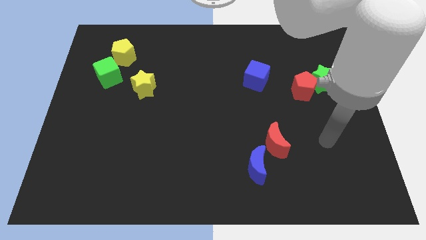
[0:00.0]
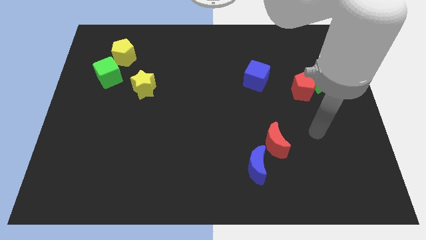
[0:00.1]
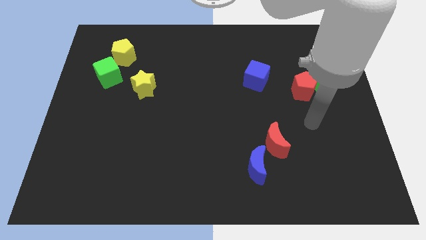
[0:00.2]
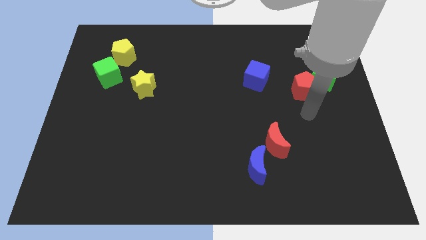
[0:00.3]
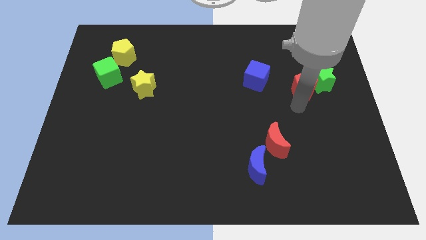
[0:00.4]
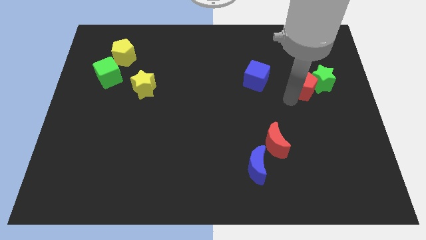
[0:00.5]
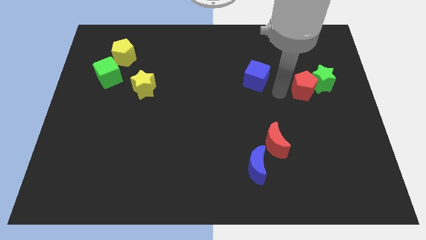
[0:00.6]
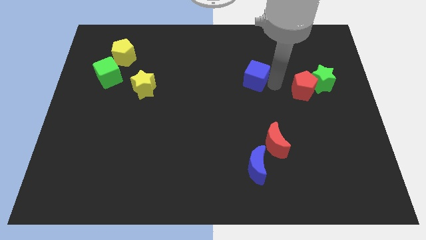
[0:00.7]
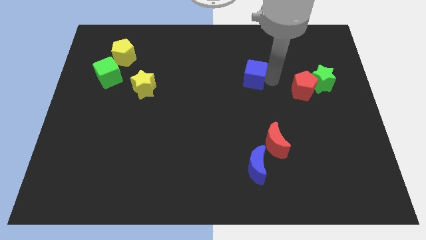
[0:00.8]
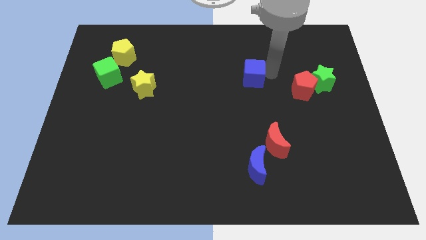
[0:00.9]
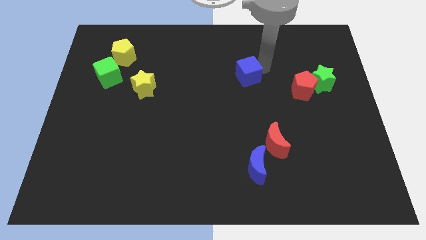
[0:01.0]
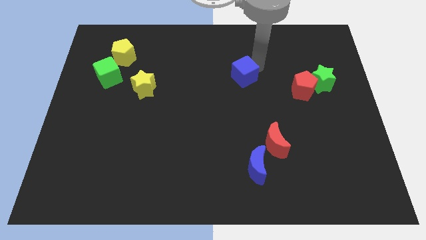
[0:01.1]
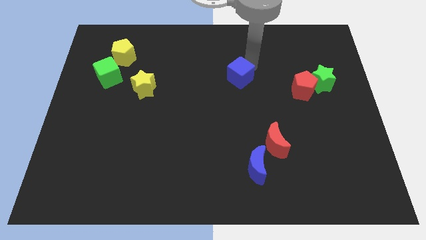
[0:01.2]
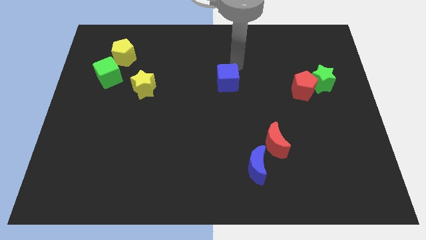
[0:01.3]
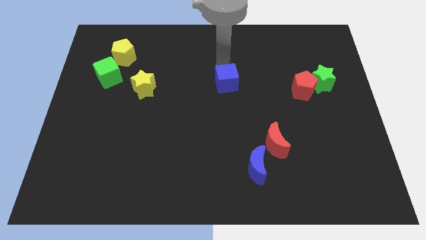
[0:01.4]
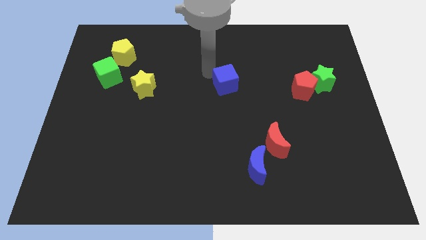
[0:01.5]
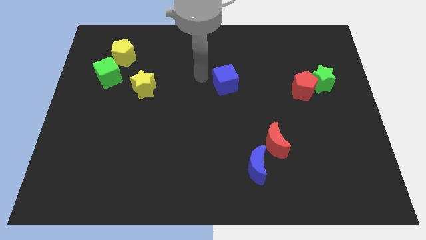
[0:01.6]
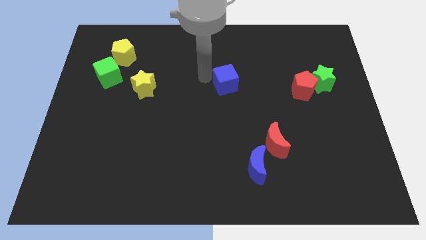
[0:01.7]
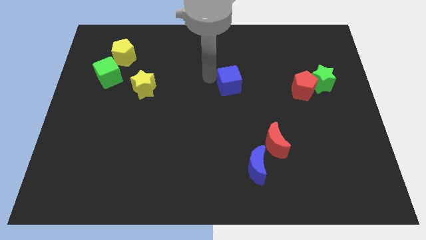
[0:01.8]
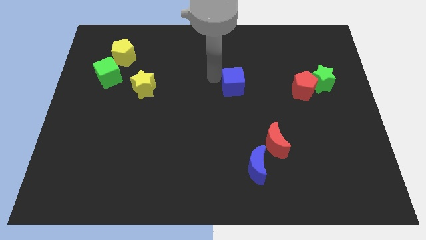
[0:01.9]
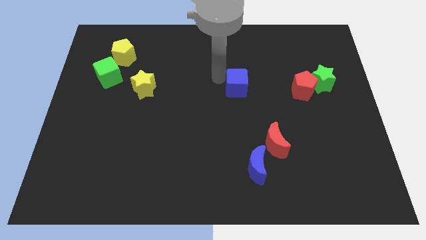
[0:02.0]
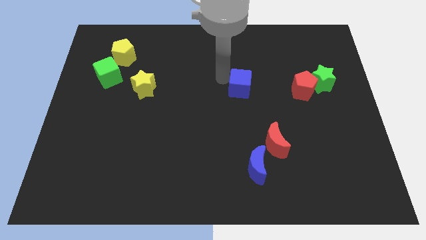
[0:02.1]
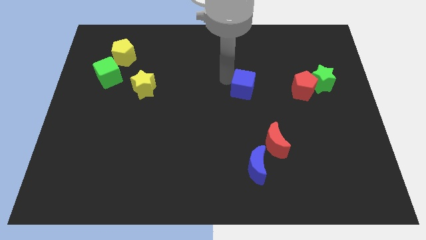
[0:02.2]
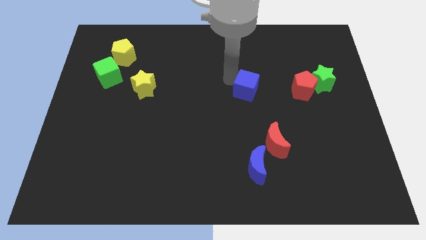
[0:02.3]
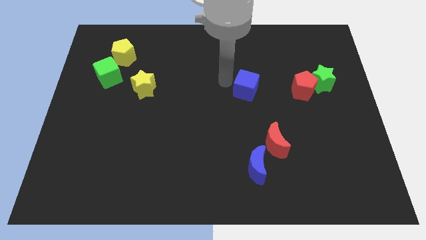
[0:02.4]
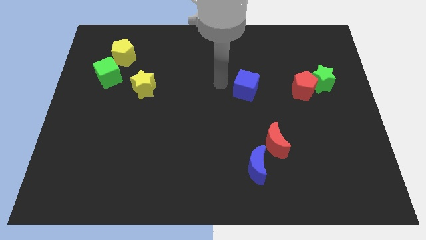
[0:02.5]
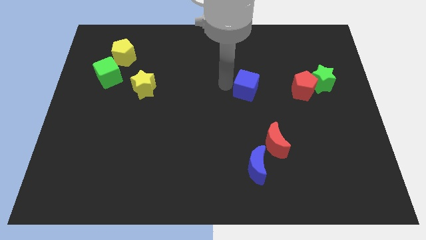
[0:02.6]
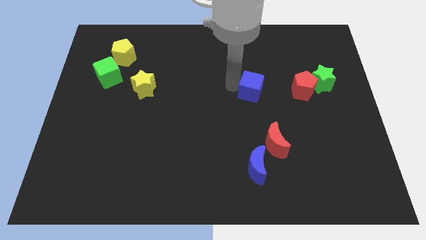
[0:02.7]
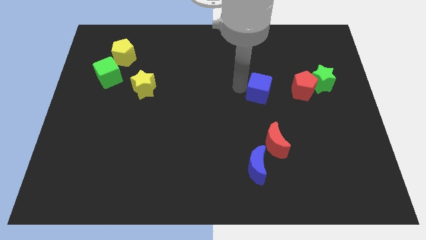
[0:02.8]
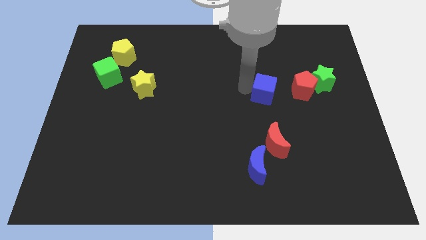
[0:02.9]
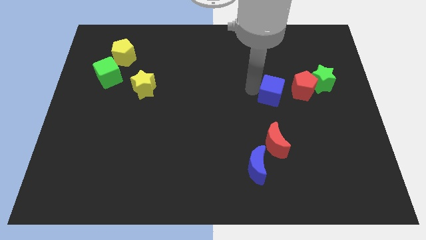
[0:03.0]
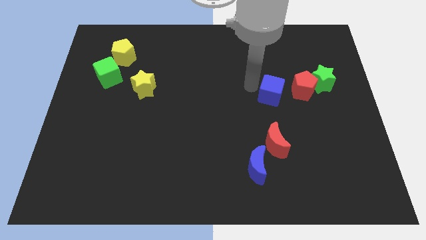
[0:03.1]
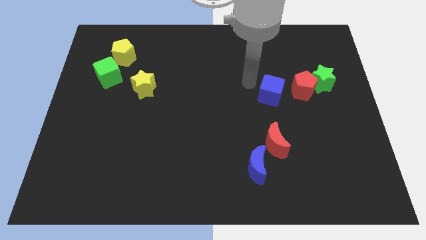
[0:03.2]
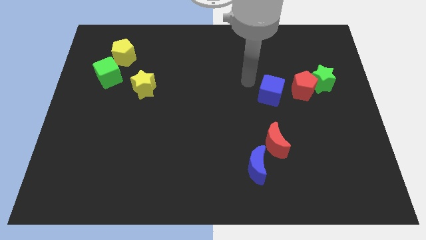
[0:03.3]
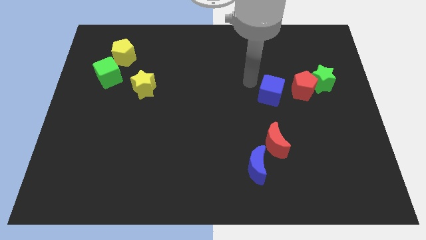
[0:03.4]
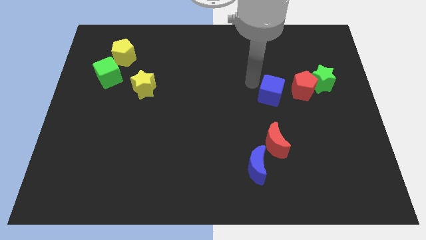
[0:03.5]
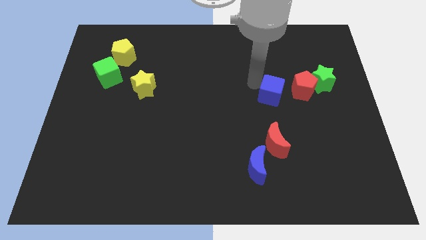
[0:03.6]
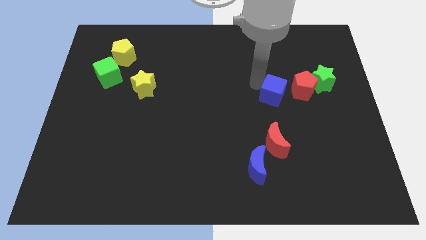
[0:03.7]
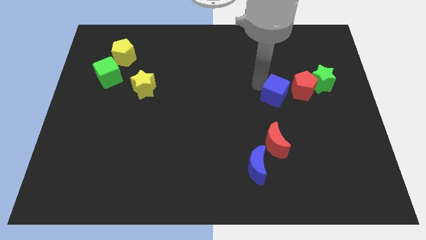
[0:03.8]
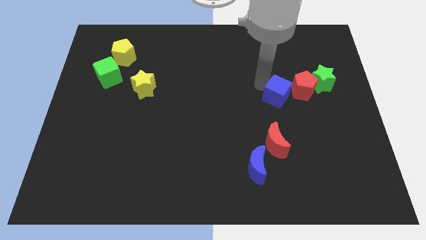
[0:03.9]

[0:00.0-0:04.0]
move the blue cube down and right a bit

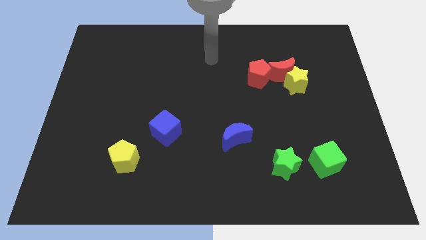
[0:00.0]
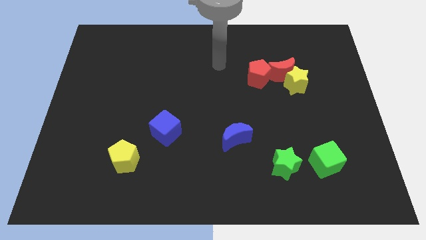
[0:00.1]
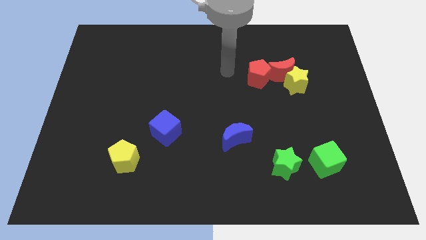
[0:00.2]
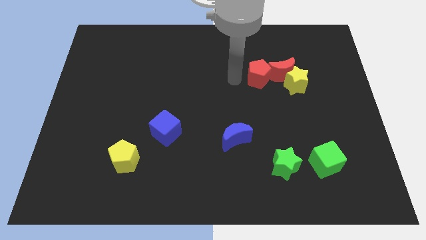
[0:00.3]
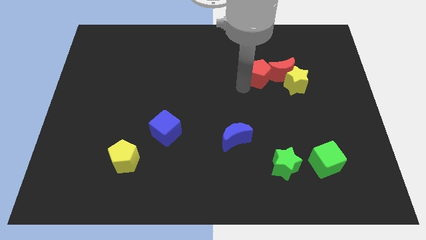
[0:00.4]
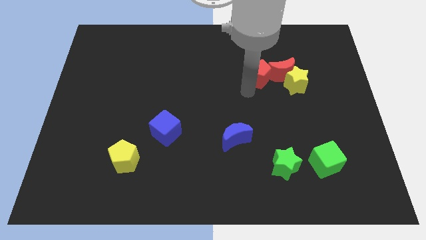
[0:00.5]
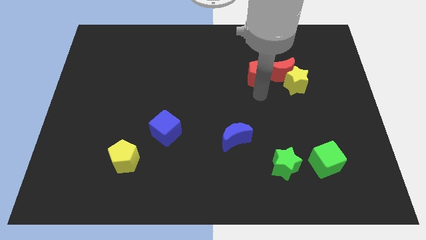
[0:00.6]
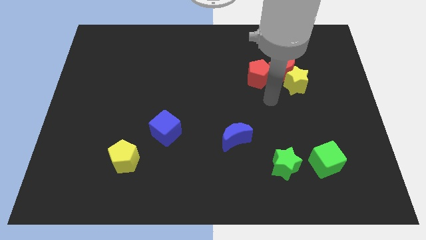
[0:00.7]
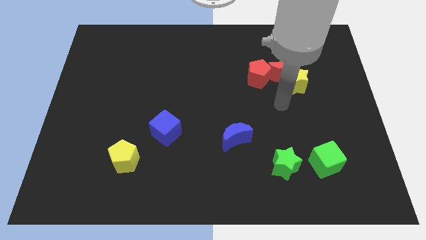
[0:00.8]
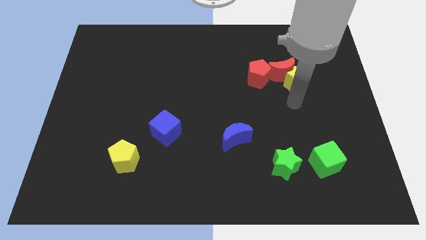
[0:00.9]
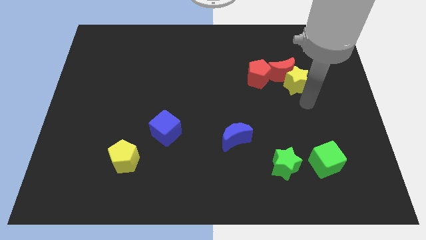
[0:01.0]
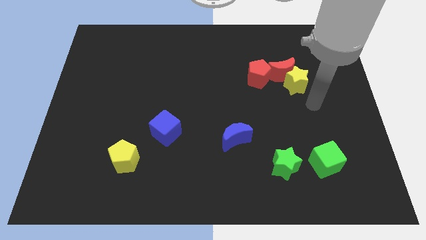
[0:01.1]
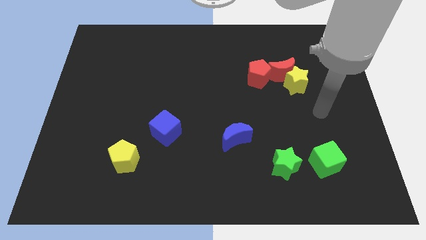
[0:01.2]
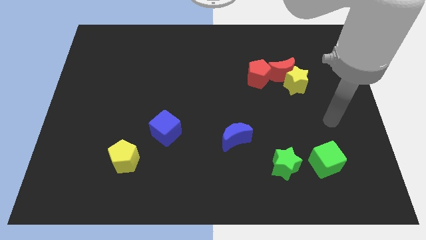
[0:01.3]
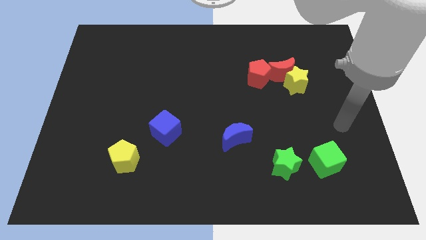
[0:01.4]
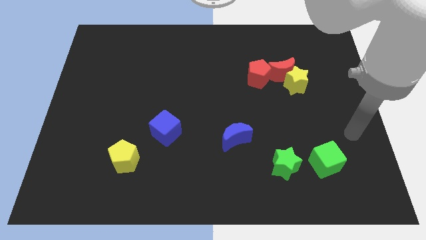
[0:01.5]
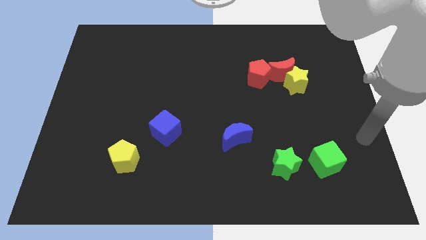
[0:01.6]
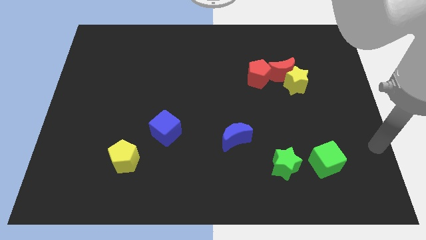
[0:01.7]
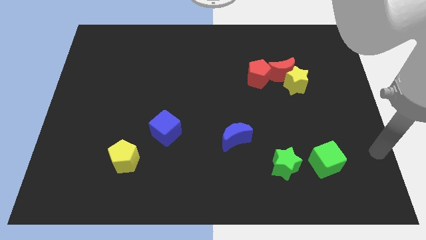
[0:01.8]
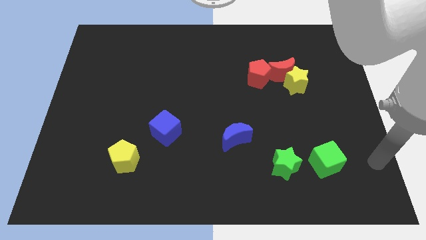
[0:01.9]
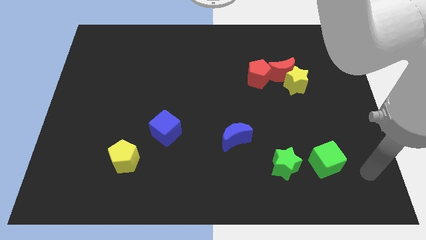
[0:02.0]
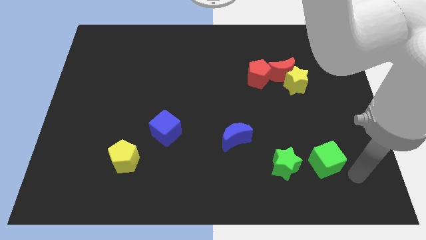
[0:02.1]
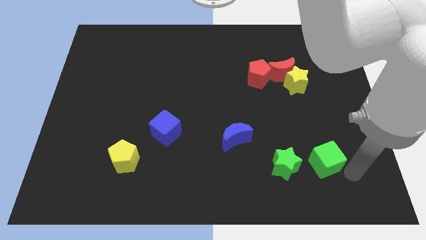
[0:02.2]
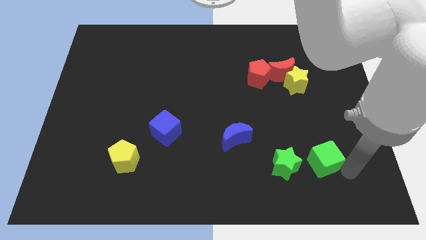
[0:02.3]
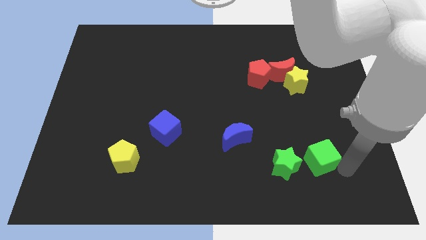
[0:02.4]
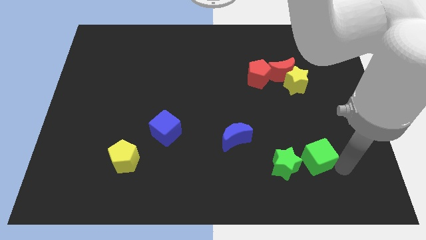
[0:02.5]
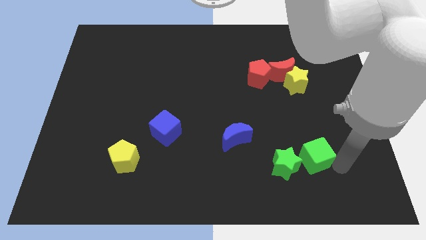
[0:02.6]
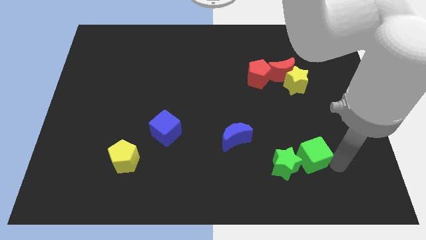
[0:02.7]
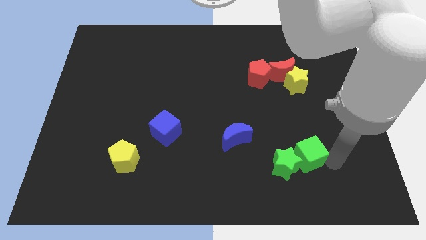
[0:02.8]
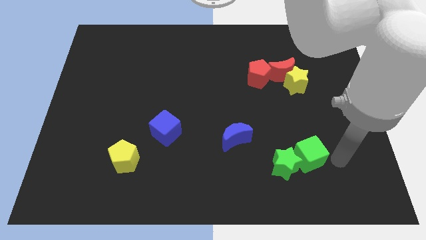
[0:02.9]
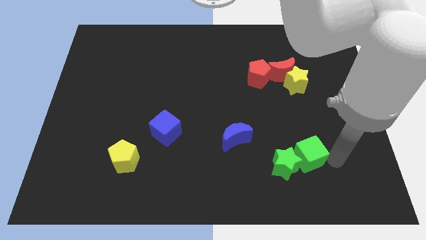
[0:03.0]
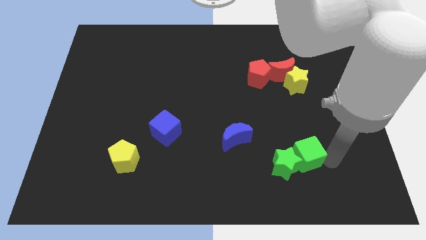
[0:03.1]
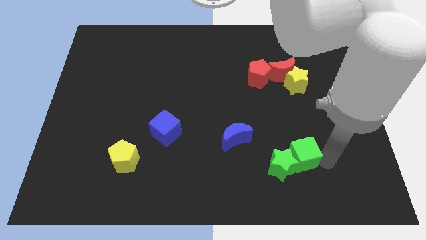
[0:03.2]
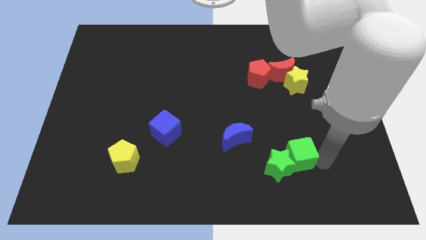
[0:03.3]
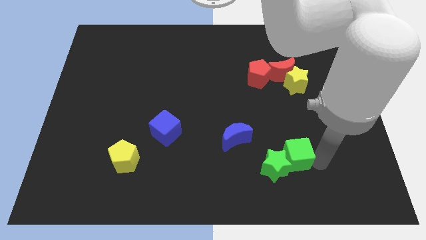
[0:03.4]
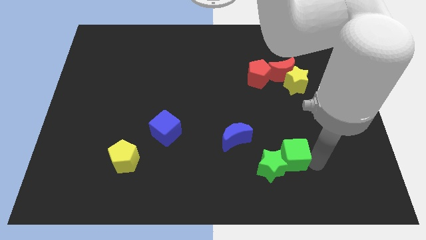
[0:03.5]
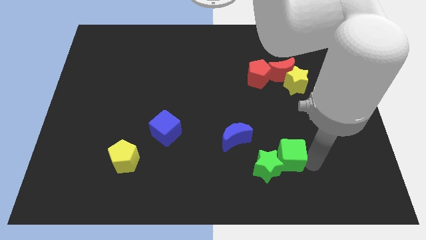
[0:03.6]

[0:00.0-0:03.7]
slightly move the green cube to the left
